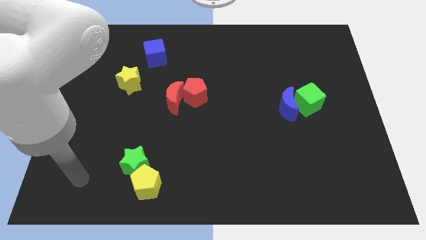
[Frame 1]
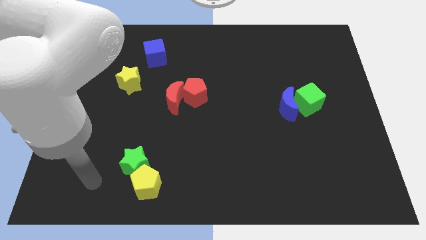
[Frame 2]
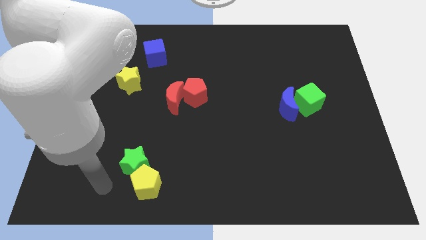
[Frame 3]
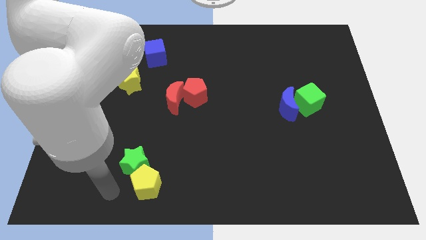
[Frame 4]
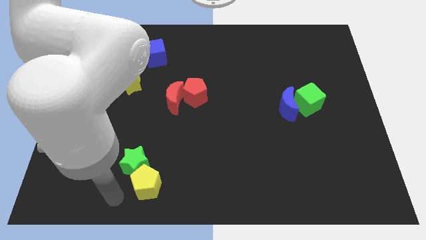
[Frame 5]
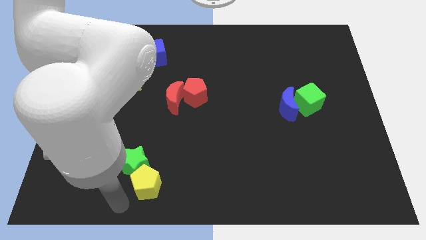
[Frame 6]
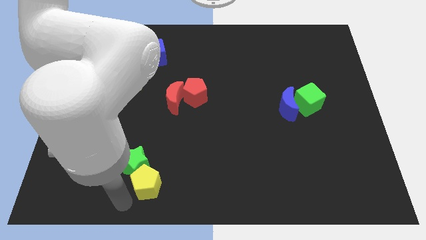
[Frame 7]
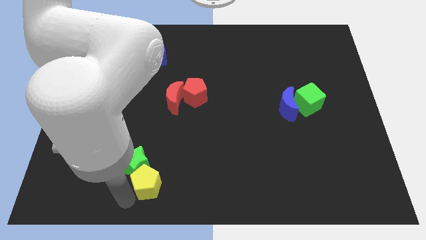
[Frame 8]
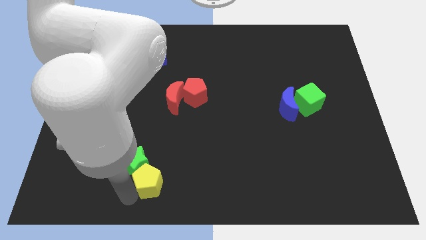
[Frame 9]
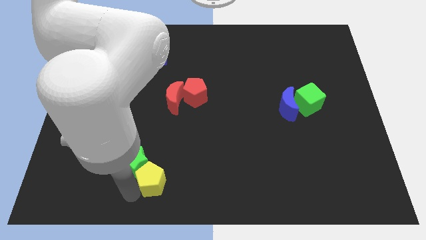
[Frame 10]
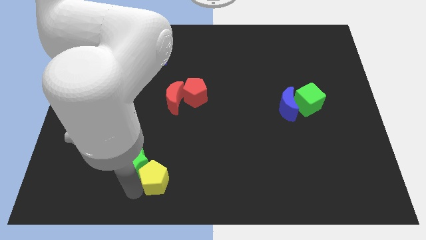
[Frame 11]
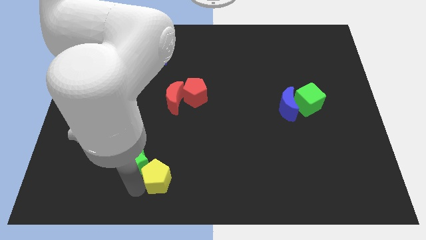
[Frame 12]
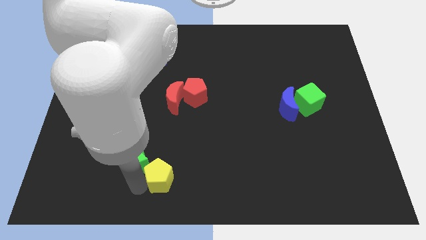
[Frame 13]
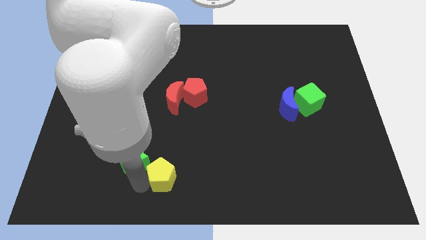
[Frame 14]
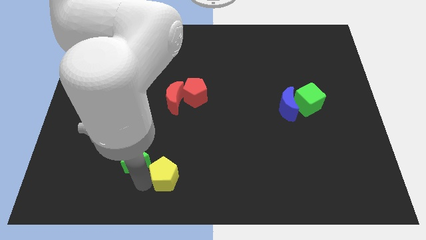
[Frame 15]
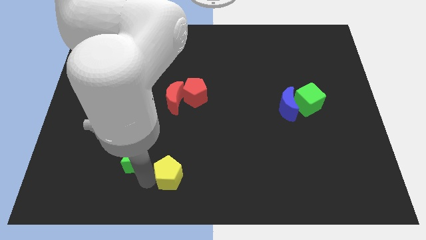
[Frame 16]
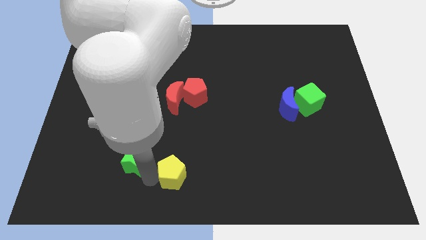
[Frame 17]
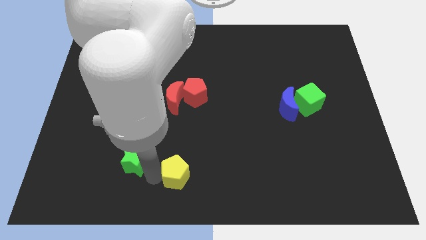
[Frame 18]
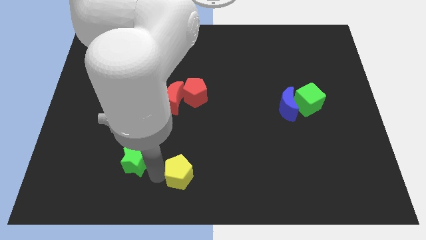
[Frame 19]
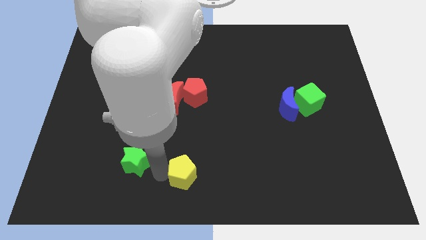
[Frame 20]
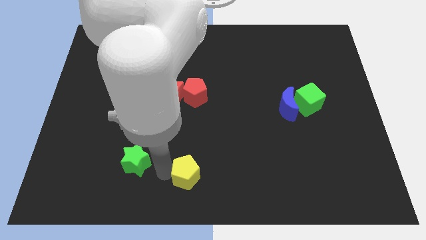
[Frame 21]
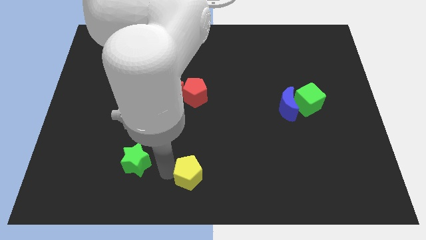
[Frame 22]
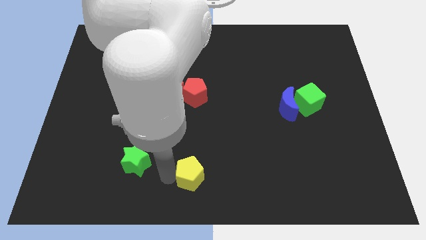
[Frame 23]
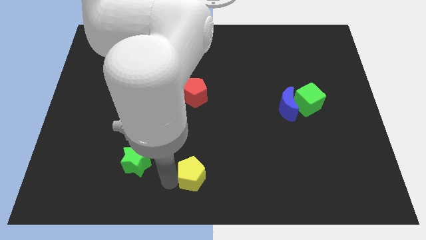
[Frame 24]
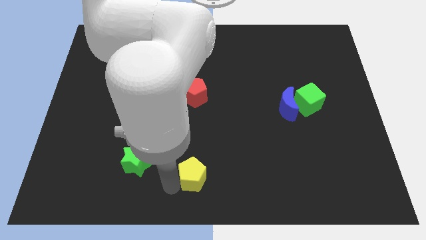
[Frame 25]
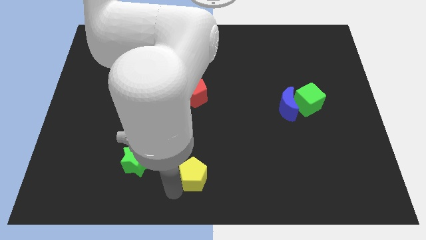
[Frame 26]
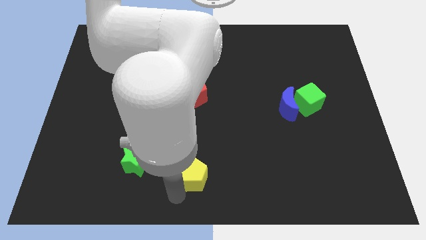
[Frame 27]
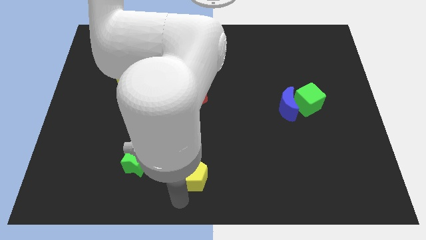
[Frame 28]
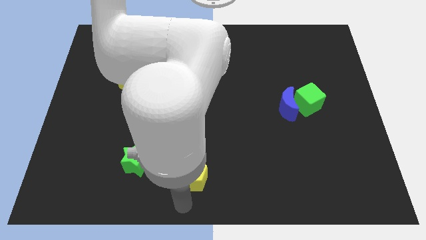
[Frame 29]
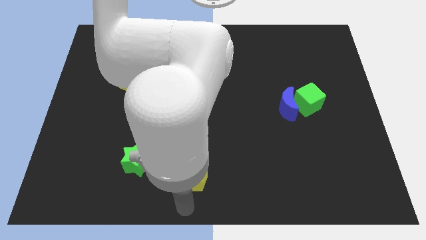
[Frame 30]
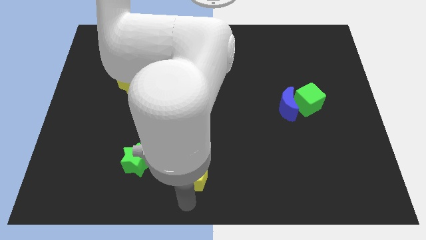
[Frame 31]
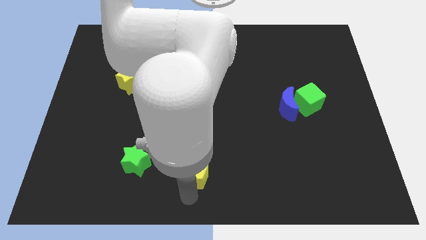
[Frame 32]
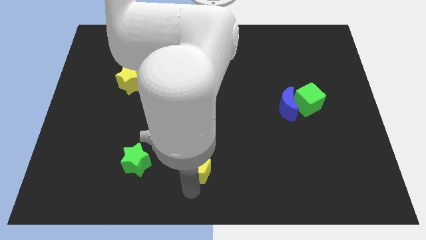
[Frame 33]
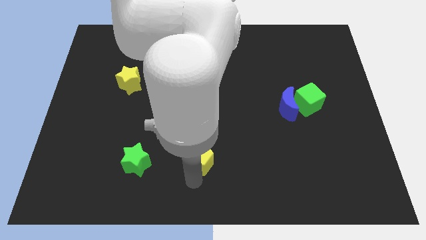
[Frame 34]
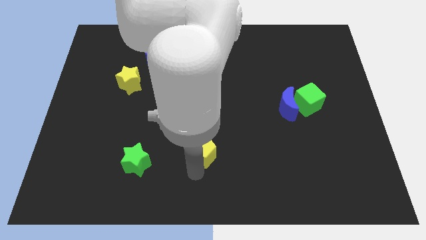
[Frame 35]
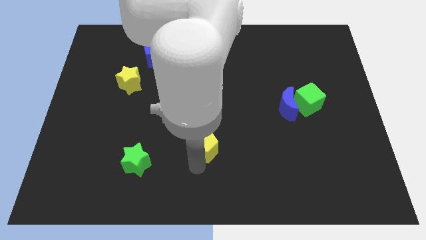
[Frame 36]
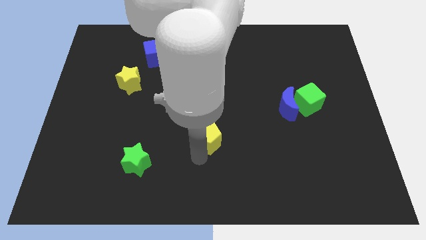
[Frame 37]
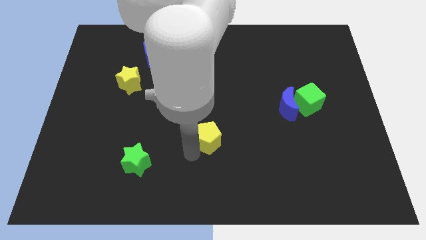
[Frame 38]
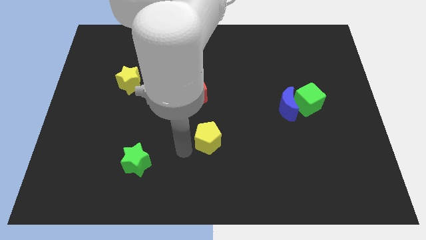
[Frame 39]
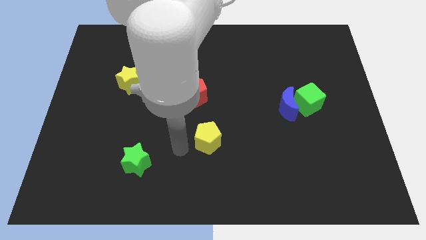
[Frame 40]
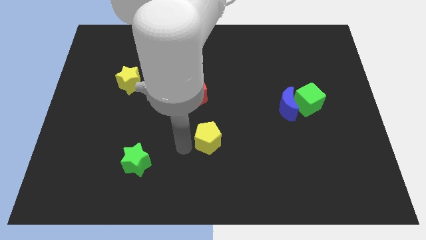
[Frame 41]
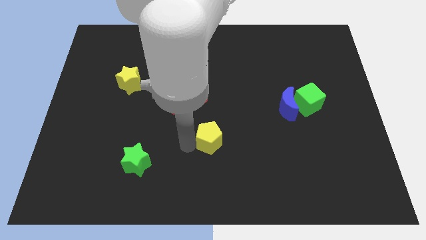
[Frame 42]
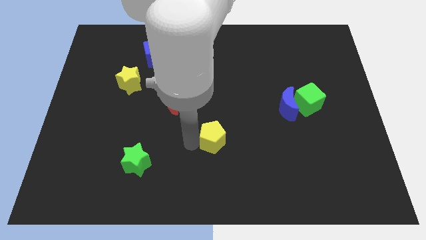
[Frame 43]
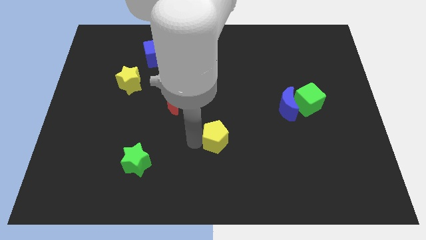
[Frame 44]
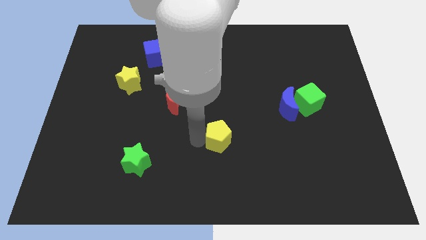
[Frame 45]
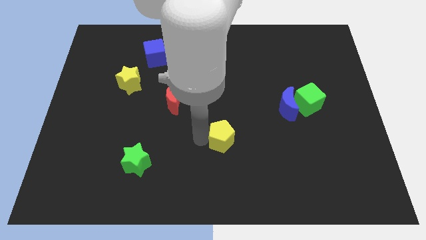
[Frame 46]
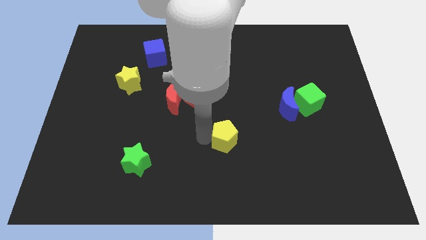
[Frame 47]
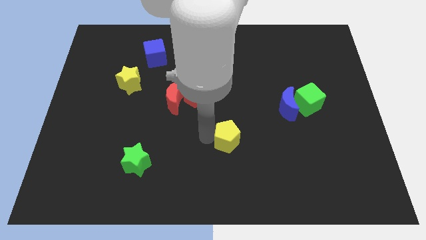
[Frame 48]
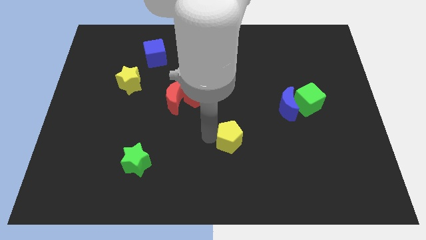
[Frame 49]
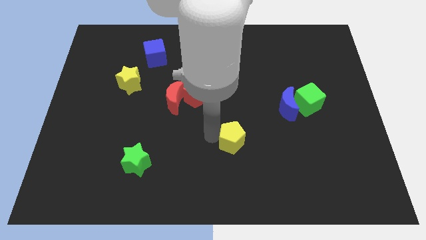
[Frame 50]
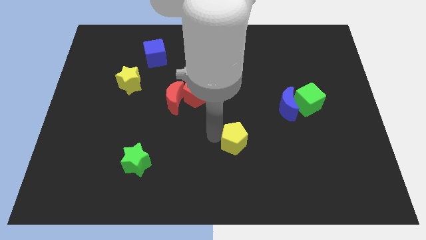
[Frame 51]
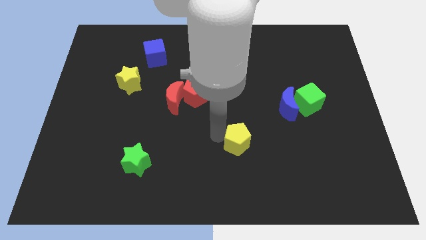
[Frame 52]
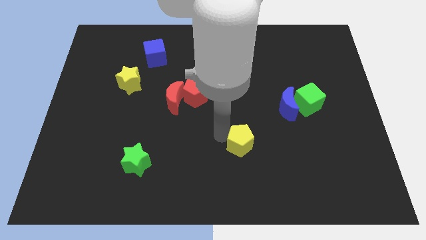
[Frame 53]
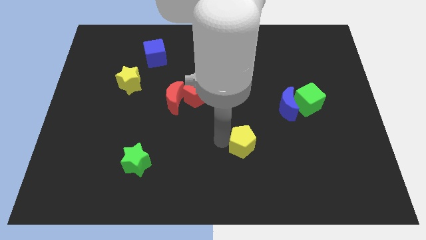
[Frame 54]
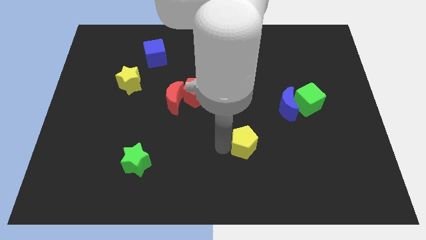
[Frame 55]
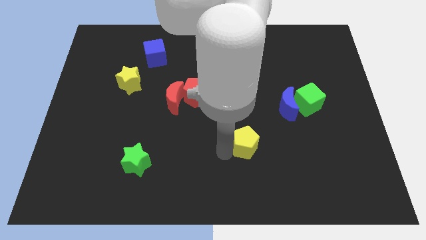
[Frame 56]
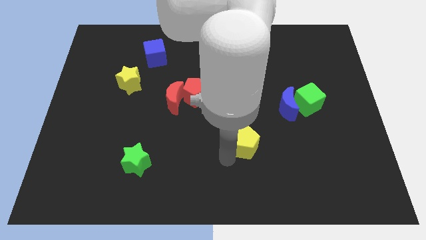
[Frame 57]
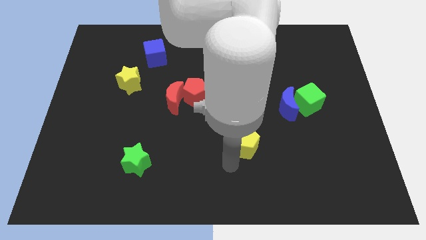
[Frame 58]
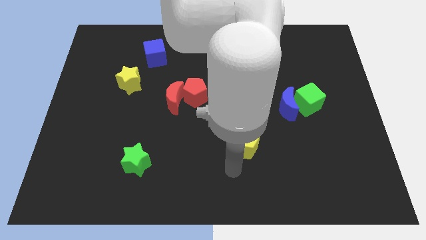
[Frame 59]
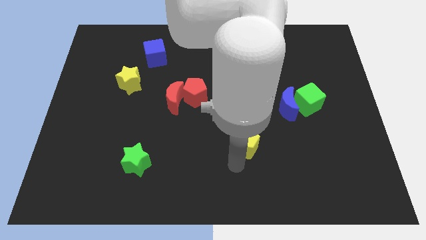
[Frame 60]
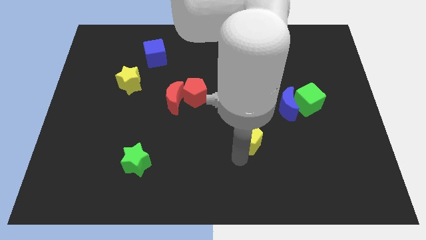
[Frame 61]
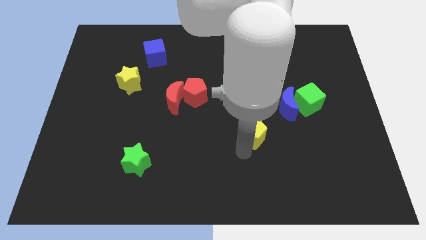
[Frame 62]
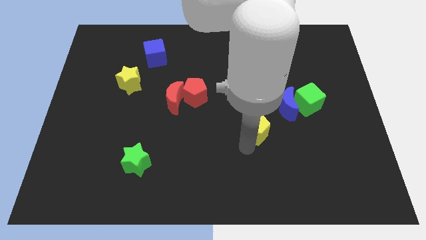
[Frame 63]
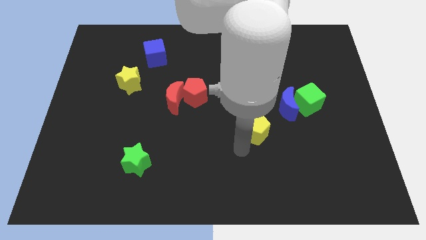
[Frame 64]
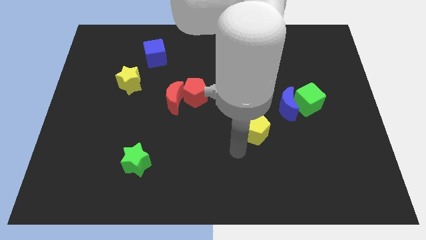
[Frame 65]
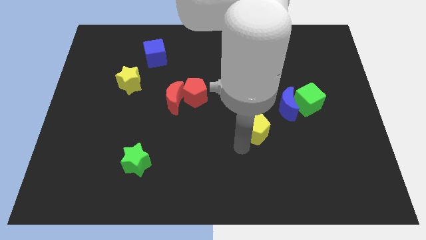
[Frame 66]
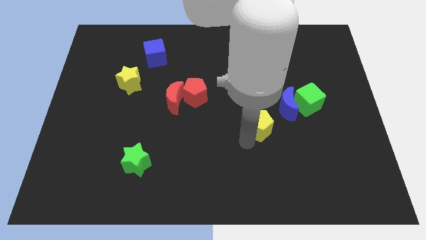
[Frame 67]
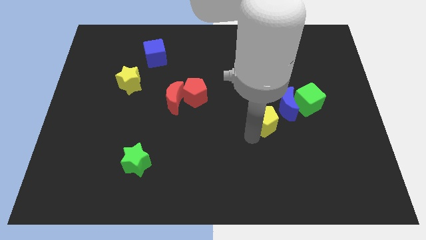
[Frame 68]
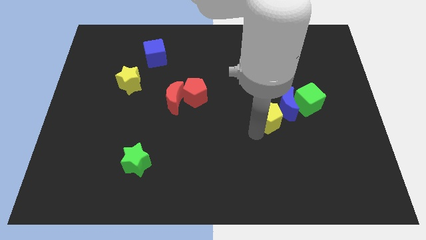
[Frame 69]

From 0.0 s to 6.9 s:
slide the yellow pentagon towards the blue moon
